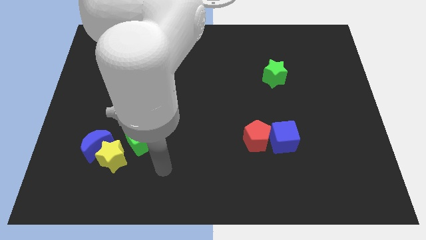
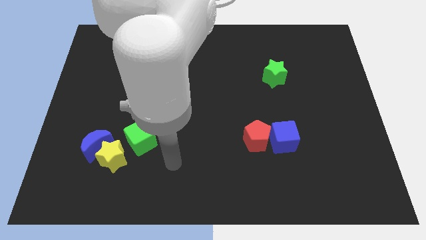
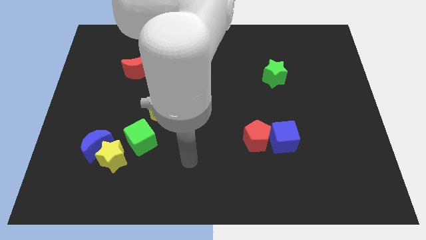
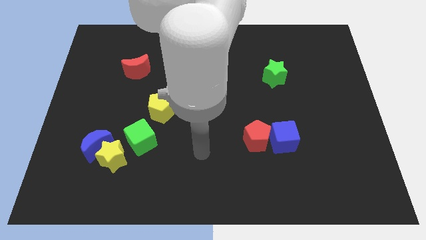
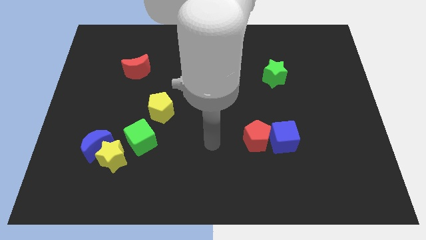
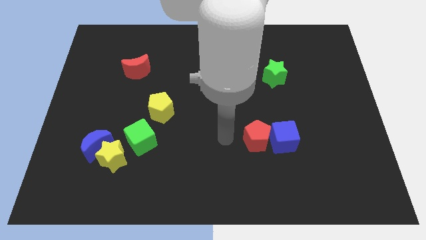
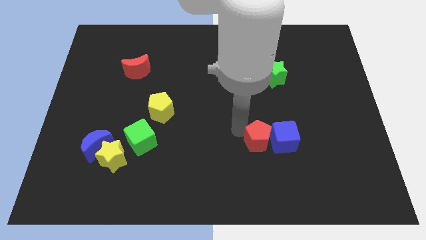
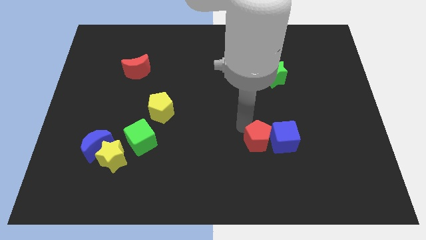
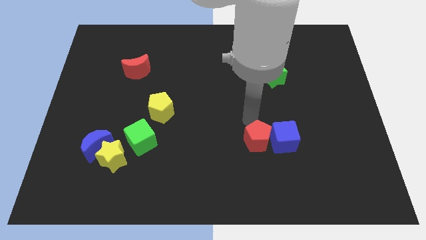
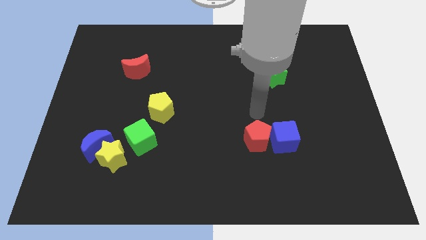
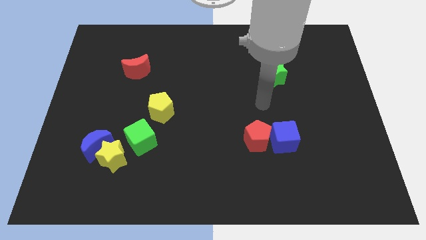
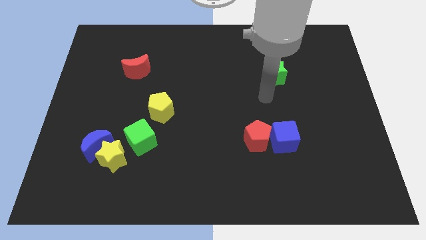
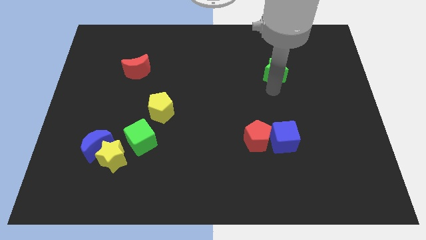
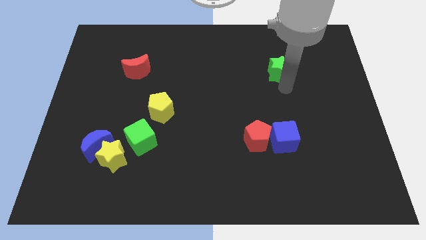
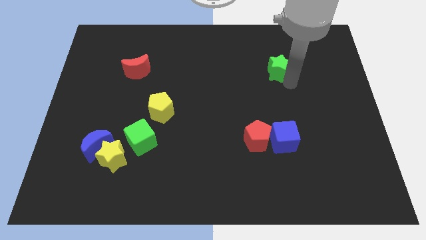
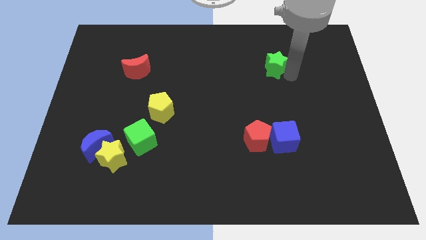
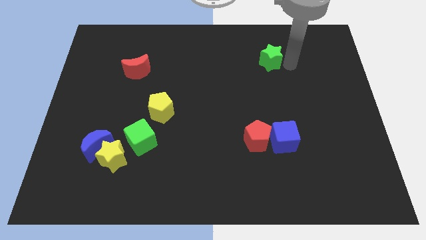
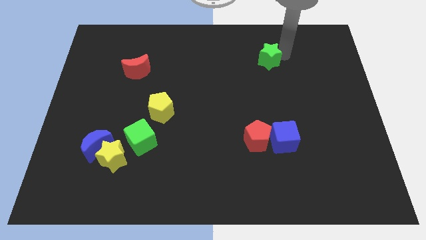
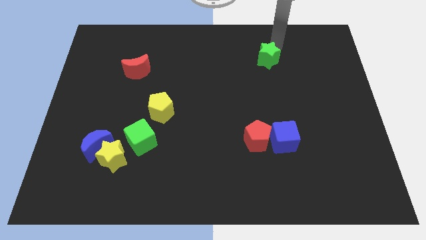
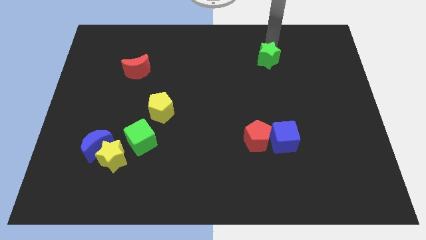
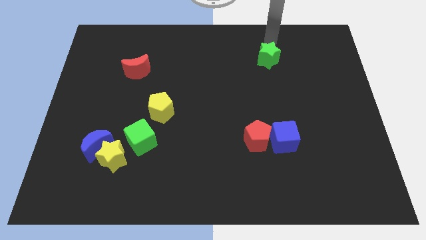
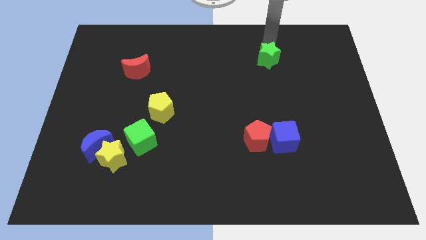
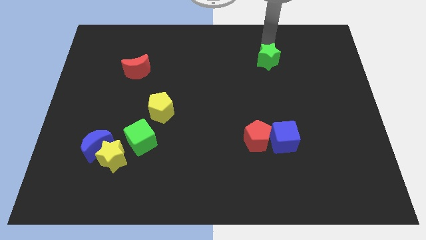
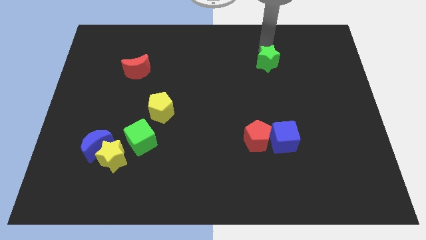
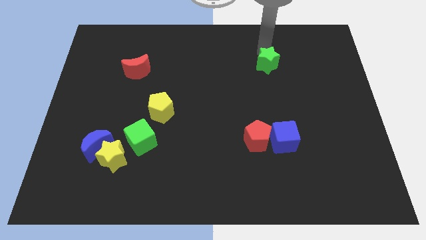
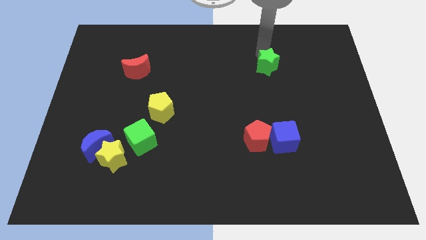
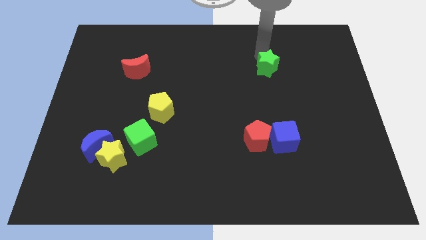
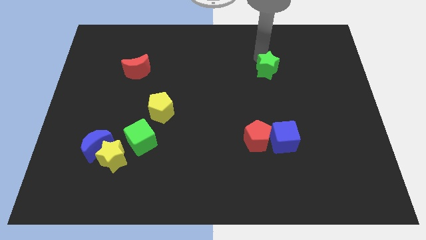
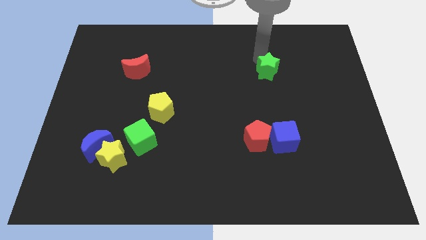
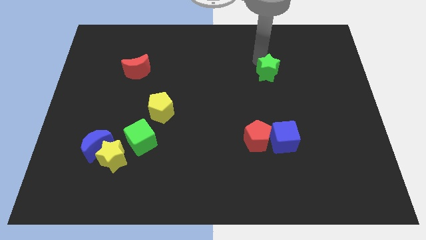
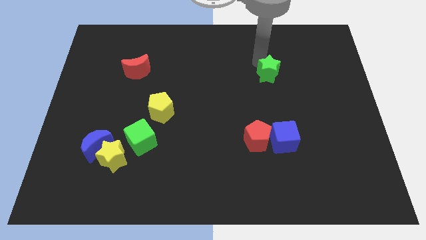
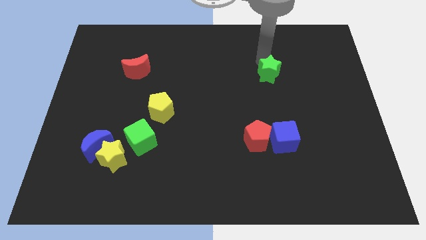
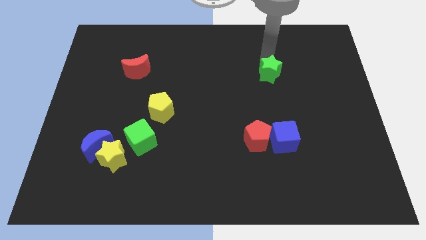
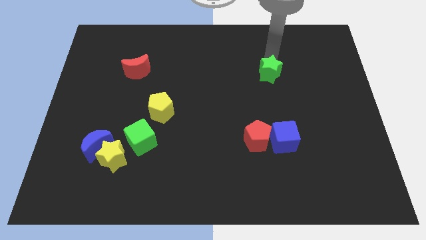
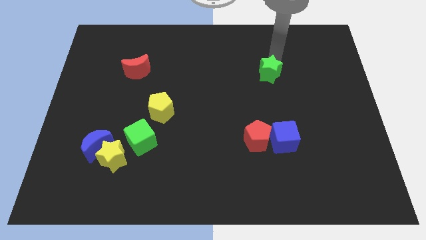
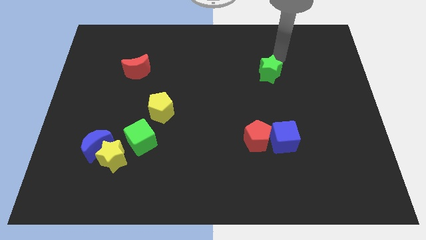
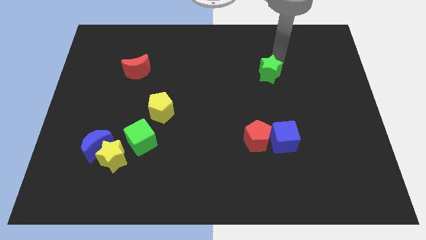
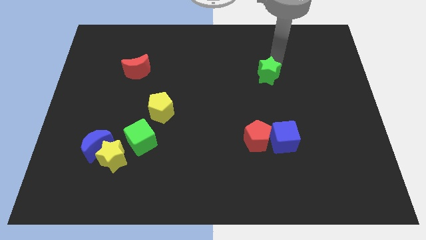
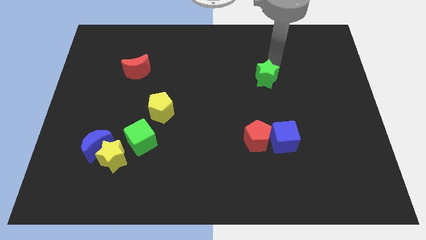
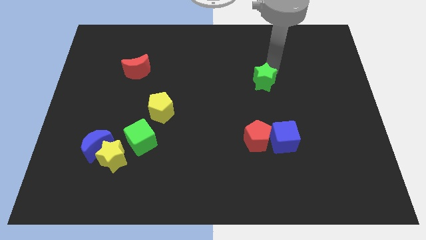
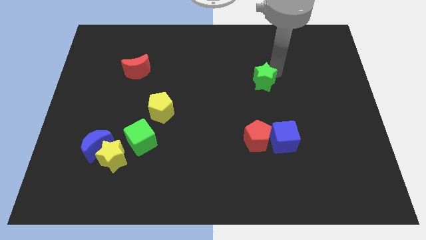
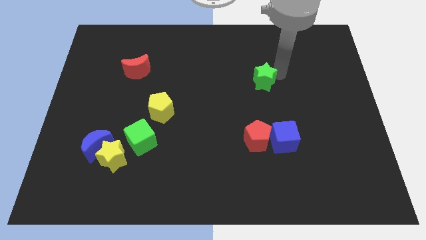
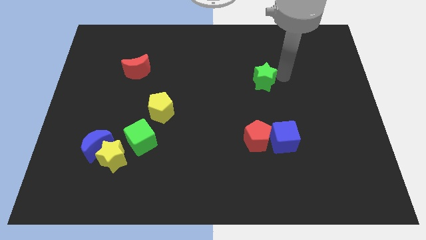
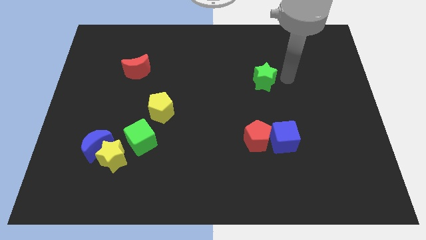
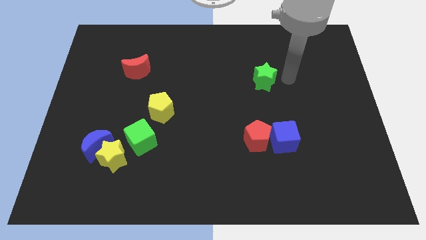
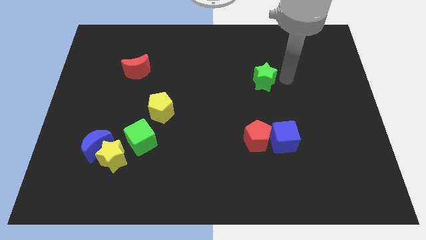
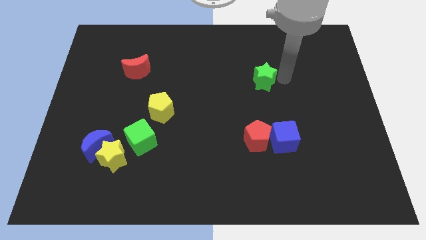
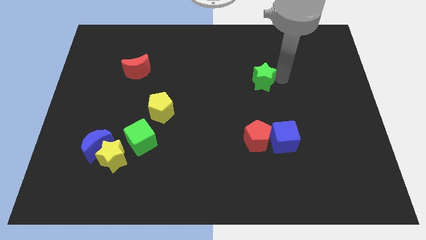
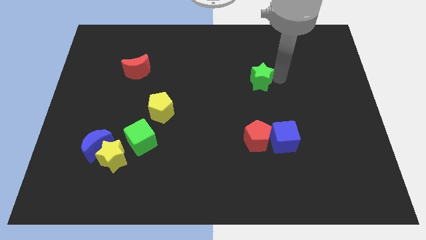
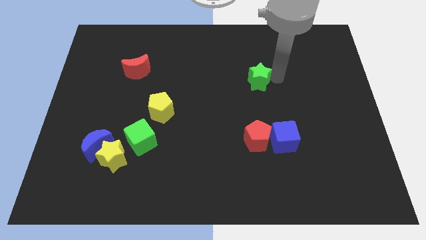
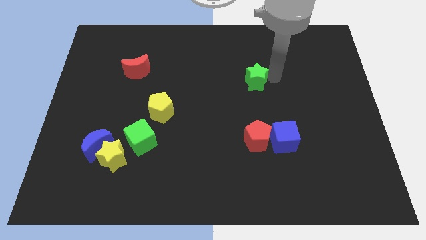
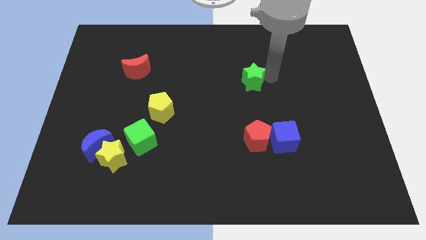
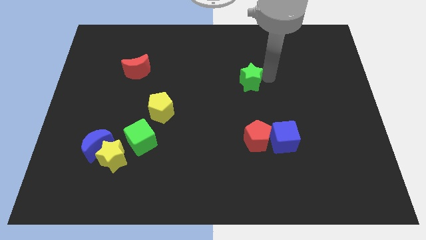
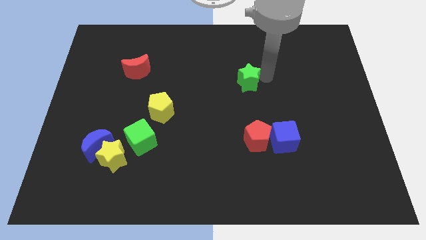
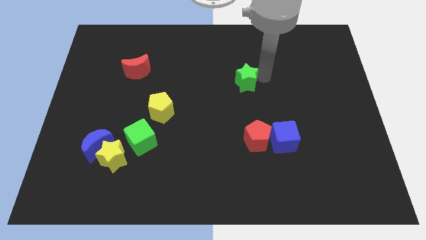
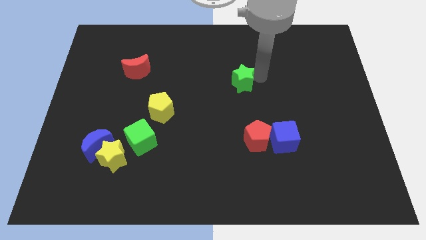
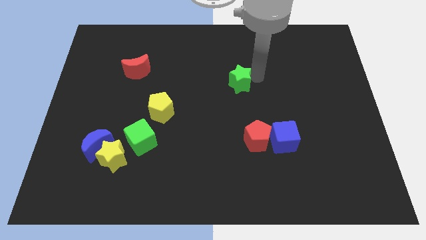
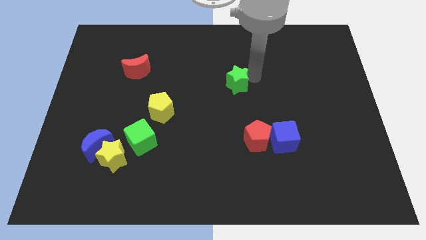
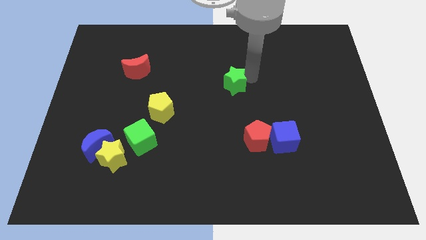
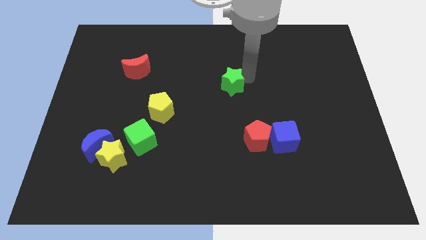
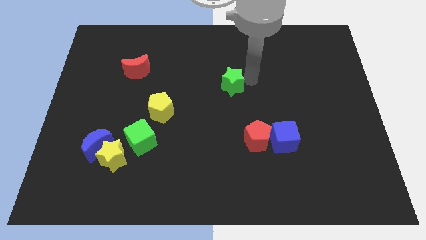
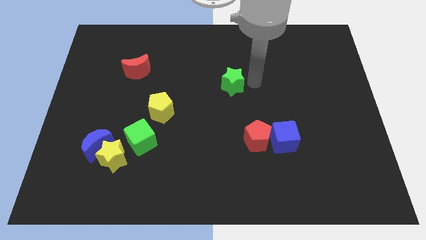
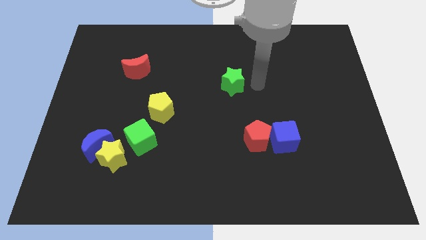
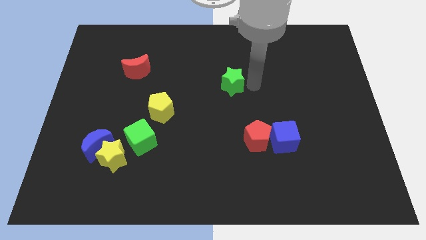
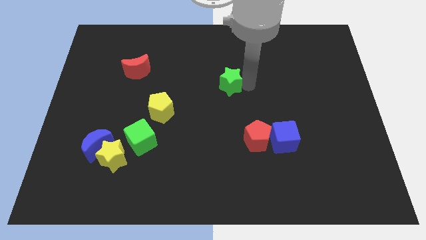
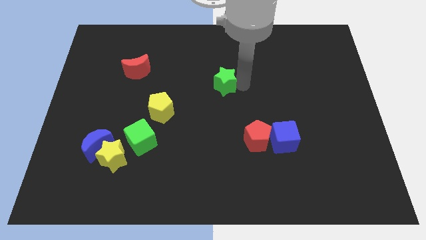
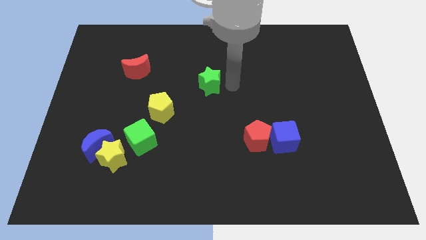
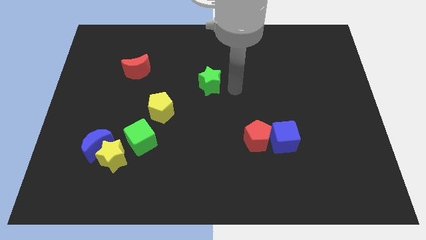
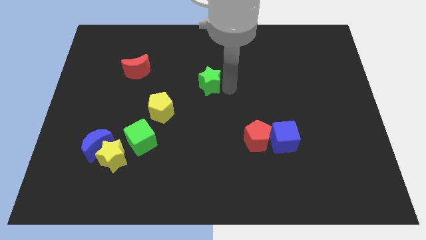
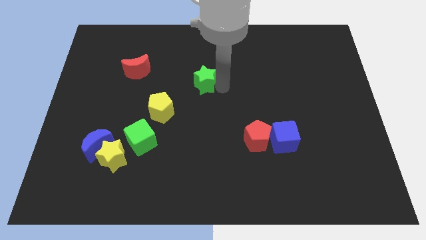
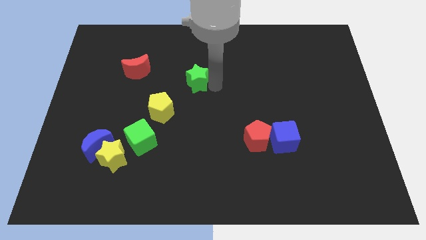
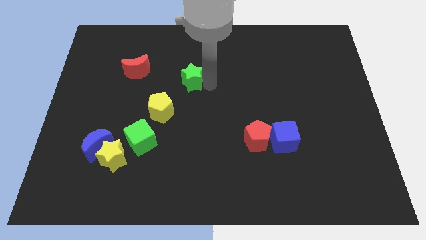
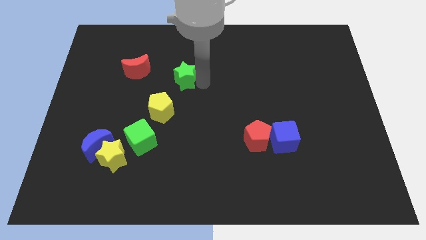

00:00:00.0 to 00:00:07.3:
slide the green star above the yellow pentagon
